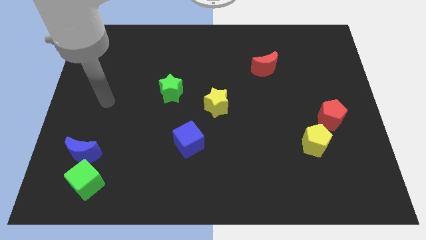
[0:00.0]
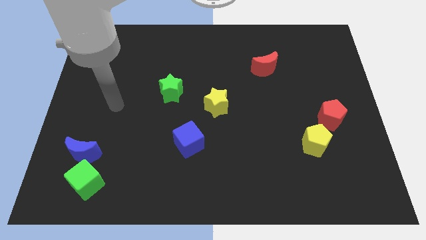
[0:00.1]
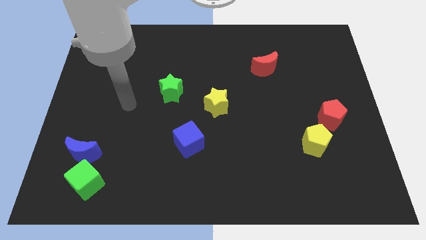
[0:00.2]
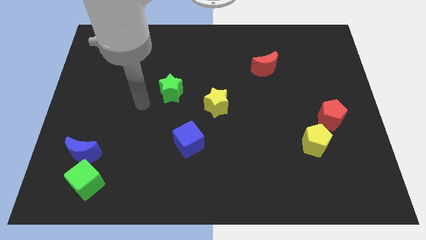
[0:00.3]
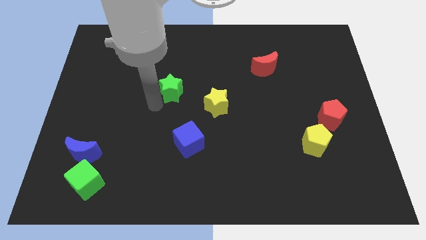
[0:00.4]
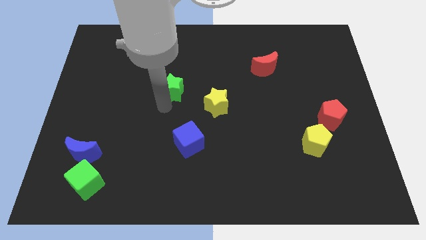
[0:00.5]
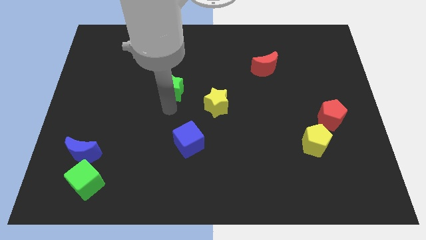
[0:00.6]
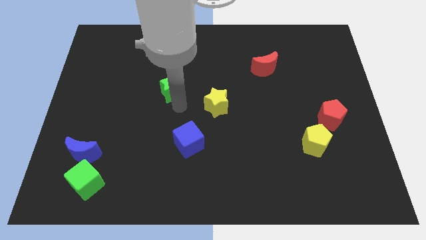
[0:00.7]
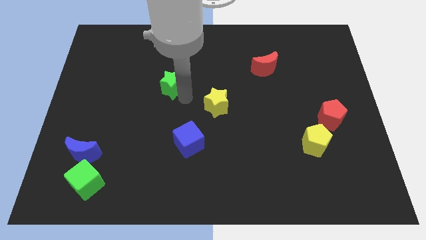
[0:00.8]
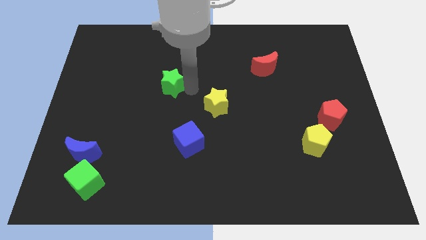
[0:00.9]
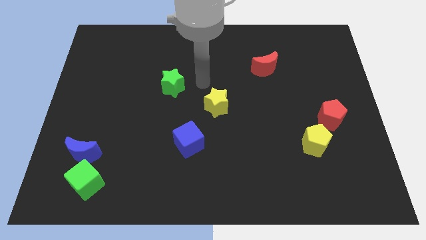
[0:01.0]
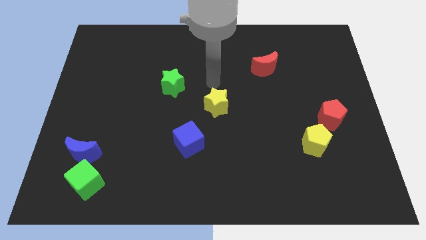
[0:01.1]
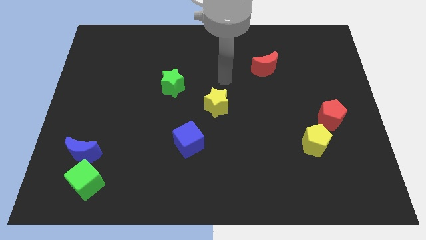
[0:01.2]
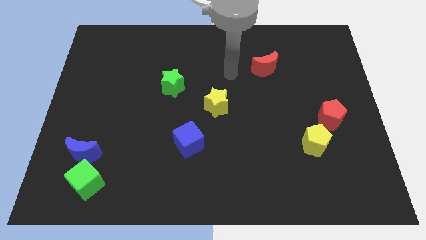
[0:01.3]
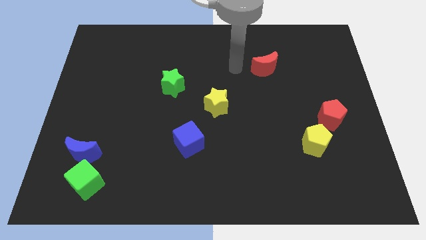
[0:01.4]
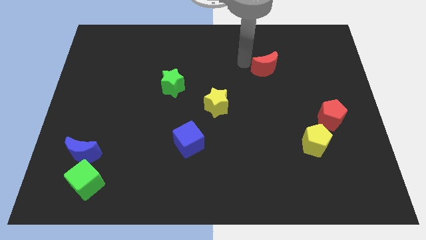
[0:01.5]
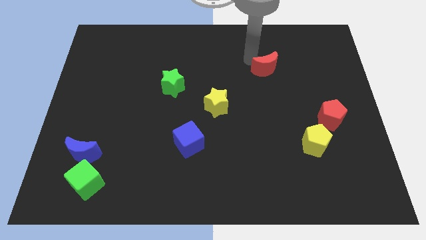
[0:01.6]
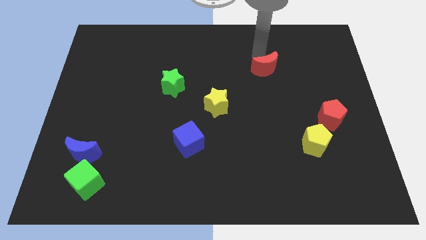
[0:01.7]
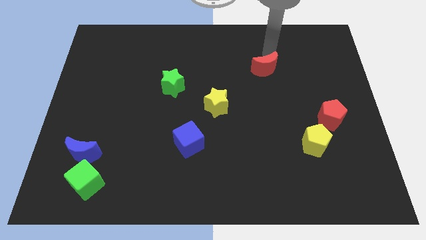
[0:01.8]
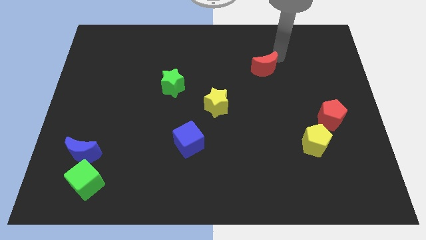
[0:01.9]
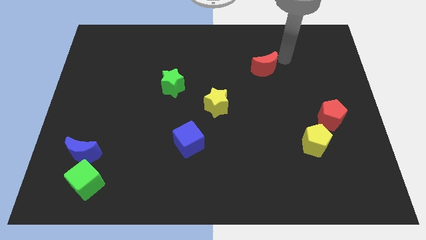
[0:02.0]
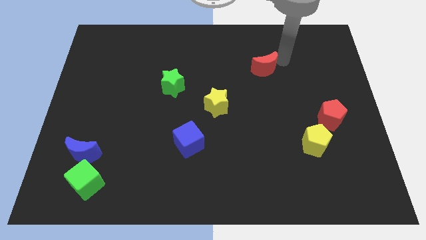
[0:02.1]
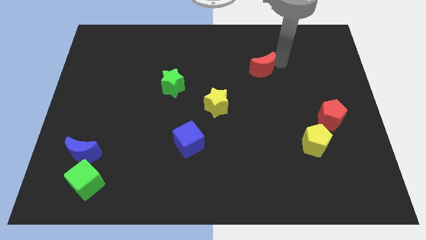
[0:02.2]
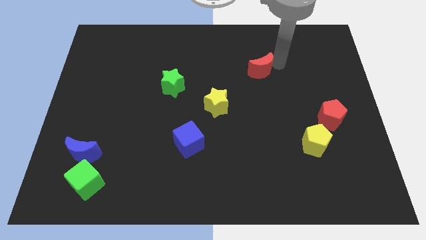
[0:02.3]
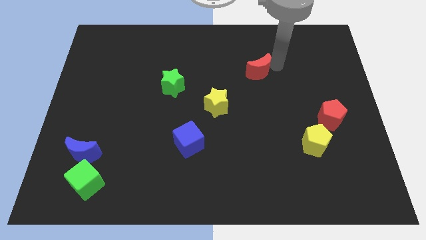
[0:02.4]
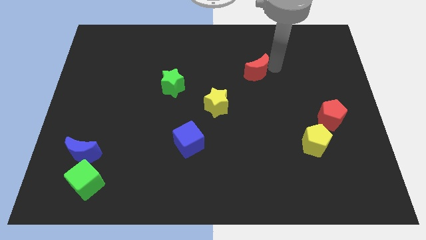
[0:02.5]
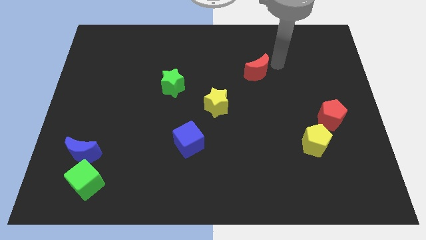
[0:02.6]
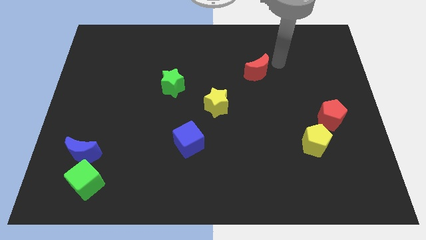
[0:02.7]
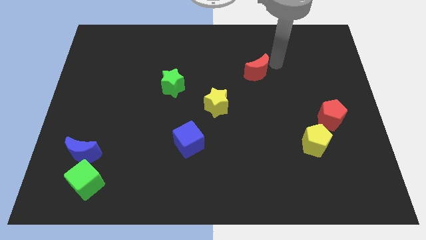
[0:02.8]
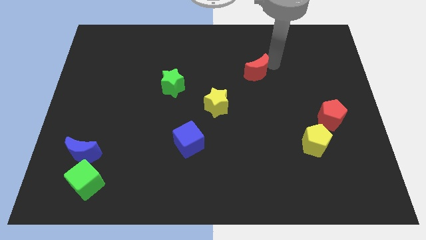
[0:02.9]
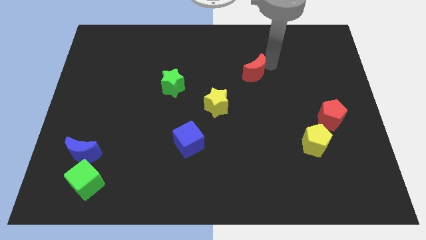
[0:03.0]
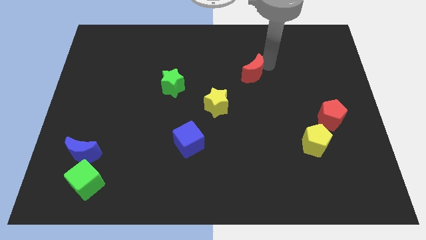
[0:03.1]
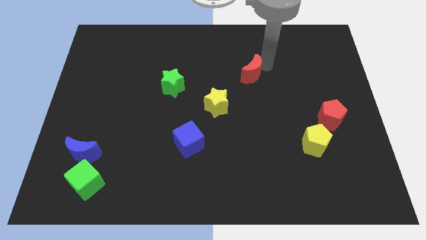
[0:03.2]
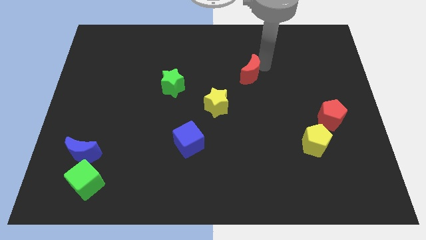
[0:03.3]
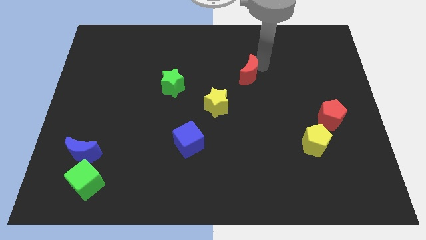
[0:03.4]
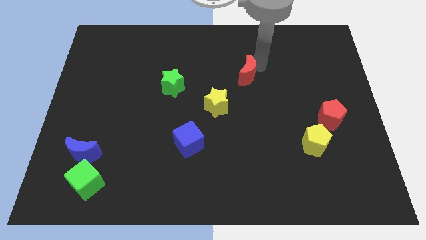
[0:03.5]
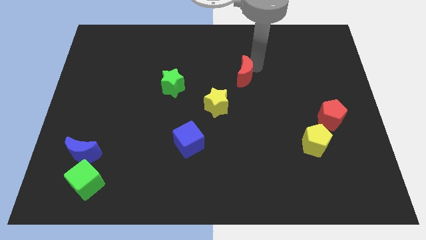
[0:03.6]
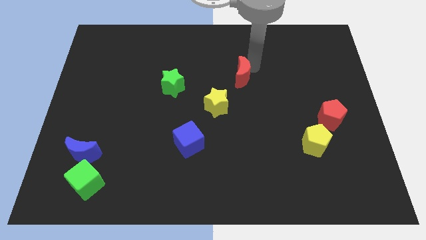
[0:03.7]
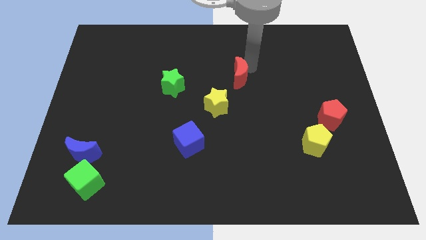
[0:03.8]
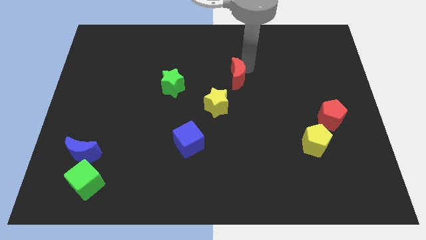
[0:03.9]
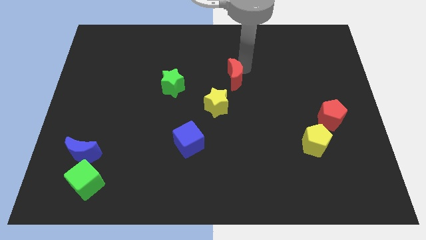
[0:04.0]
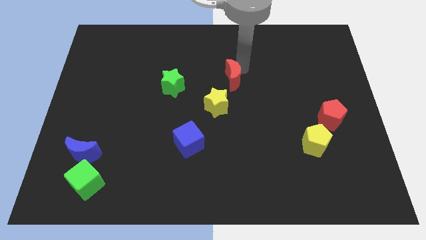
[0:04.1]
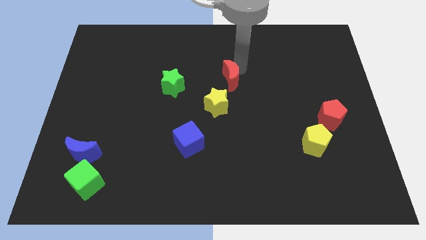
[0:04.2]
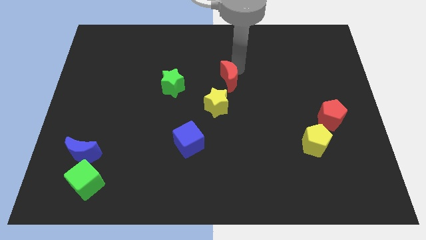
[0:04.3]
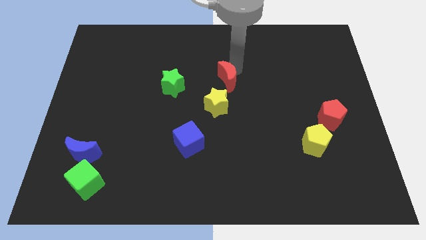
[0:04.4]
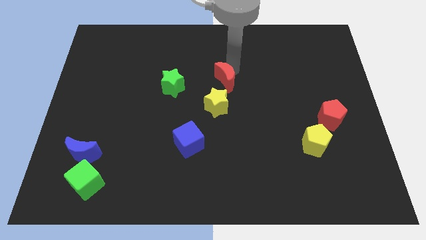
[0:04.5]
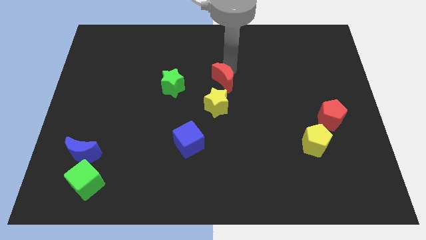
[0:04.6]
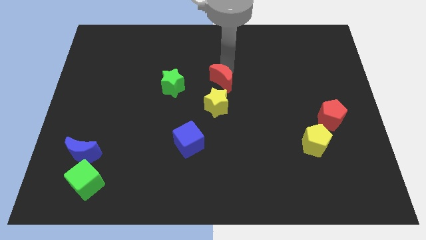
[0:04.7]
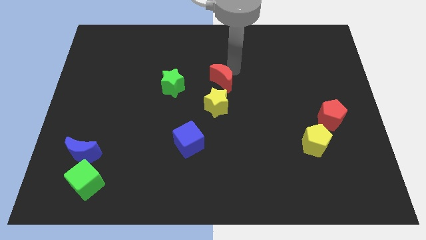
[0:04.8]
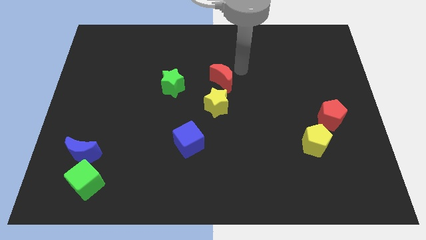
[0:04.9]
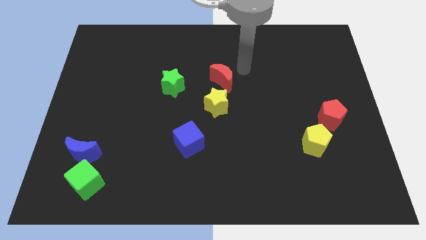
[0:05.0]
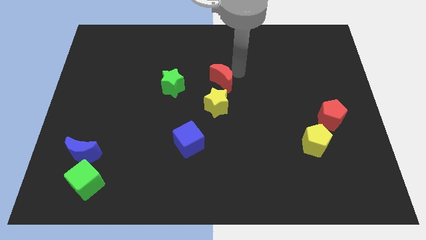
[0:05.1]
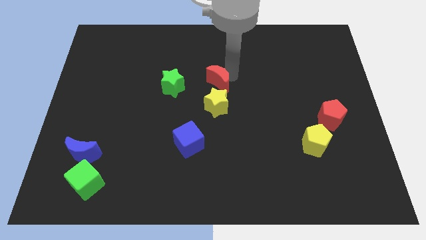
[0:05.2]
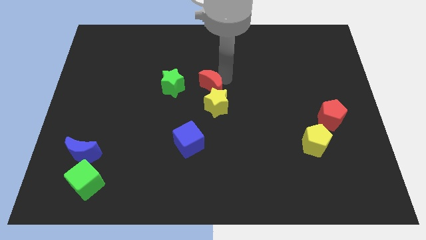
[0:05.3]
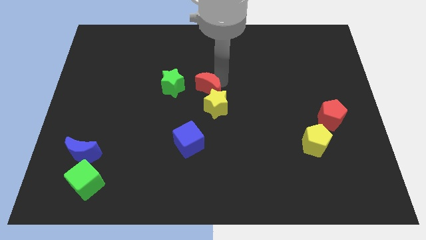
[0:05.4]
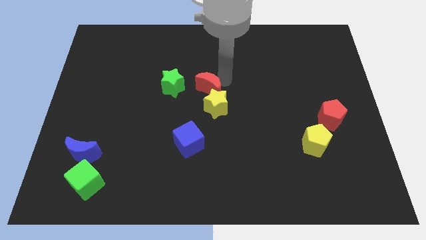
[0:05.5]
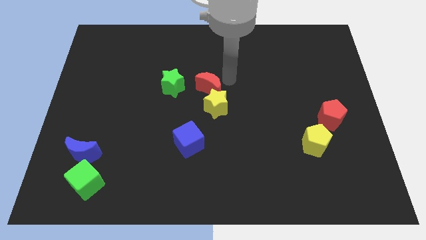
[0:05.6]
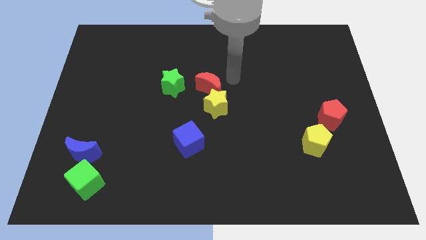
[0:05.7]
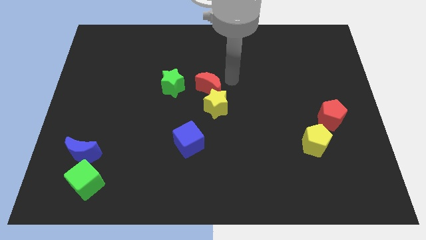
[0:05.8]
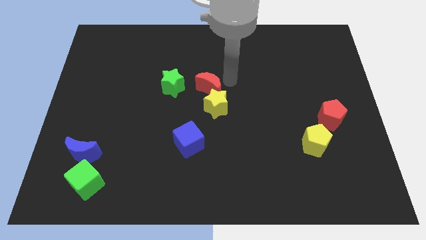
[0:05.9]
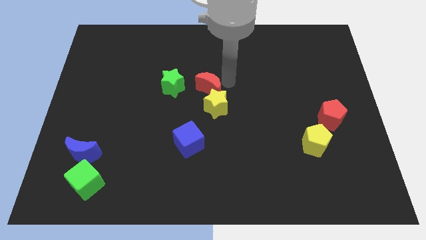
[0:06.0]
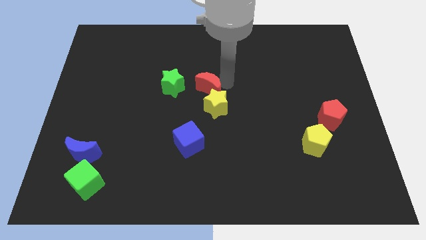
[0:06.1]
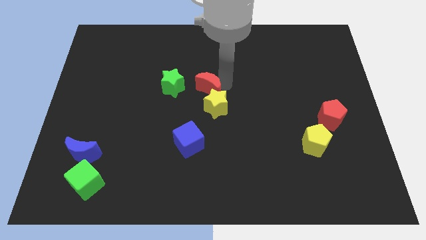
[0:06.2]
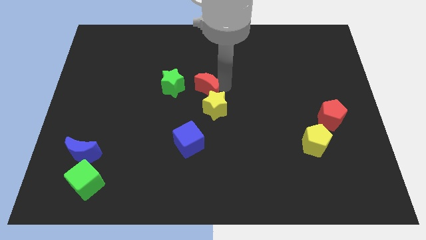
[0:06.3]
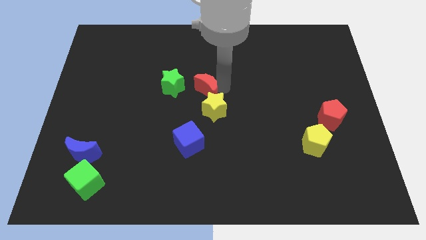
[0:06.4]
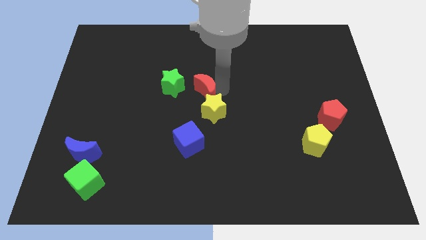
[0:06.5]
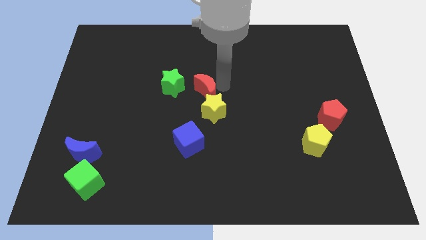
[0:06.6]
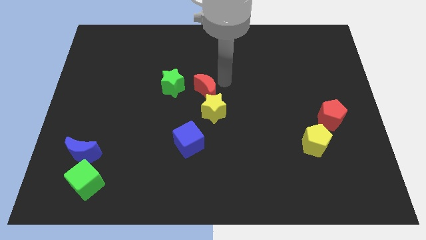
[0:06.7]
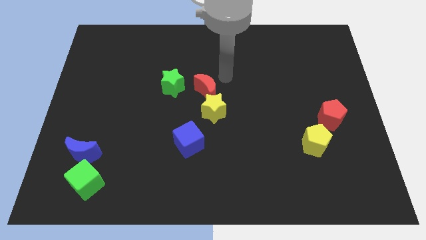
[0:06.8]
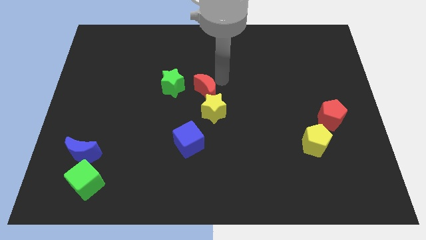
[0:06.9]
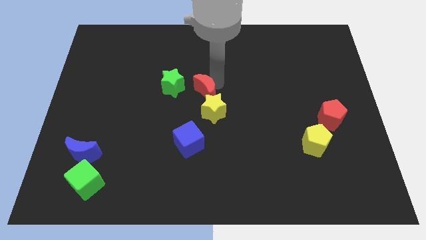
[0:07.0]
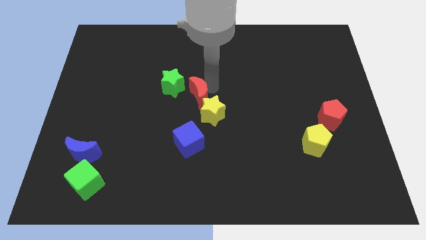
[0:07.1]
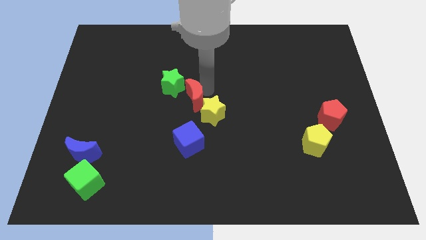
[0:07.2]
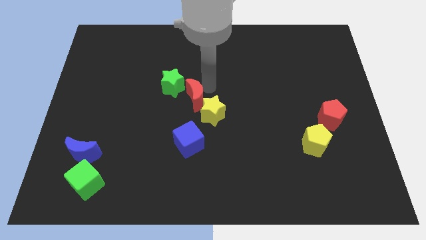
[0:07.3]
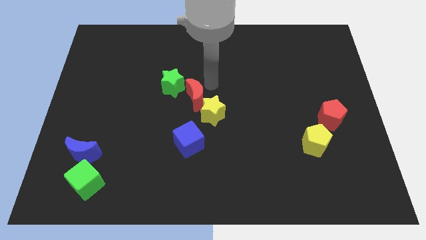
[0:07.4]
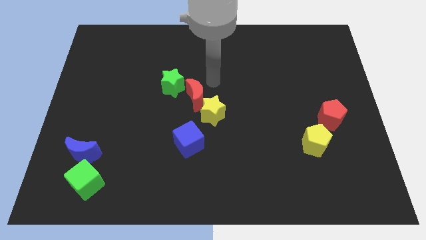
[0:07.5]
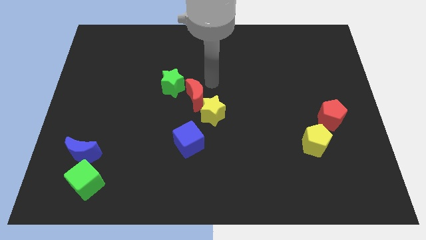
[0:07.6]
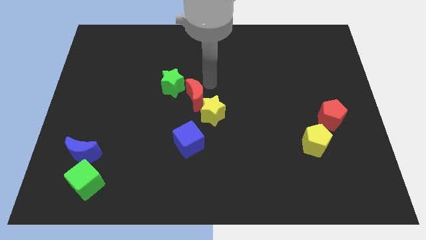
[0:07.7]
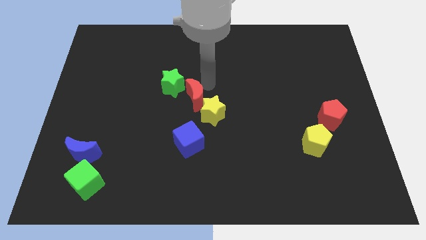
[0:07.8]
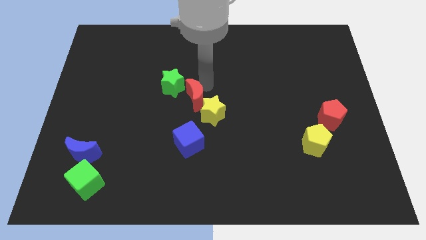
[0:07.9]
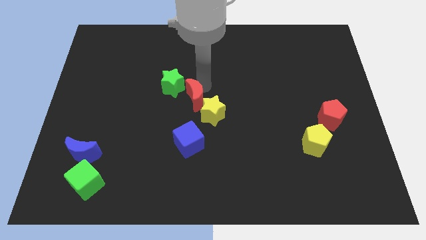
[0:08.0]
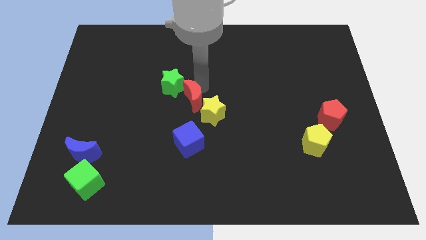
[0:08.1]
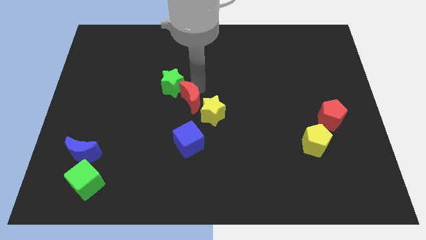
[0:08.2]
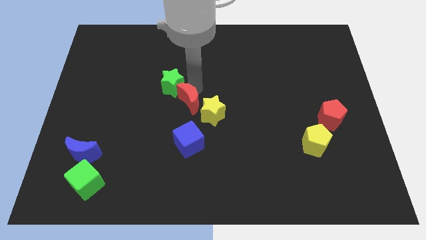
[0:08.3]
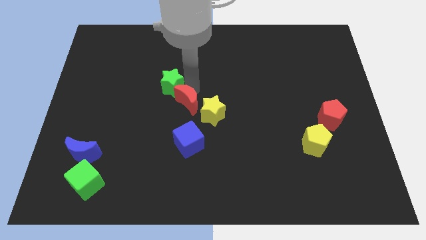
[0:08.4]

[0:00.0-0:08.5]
slide the red moon down and left diagonally
